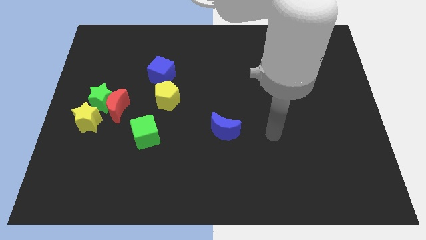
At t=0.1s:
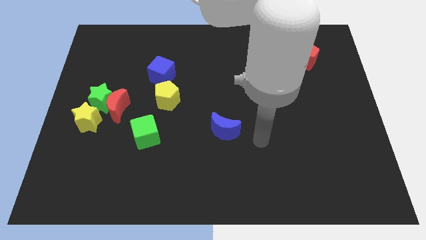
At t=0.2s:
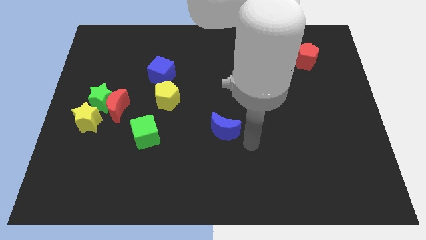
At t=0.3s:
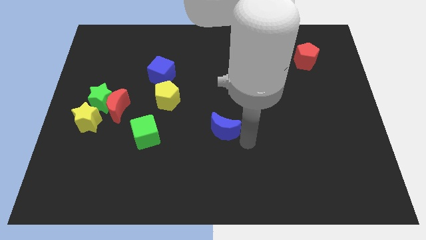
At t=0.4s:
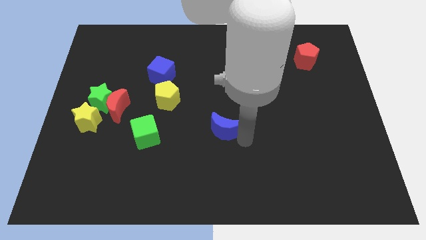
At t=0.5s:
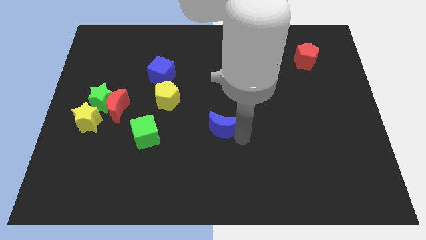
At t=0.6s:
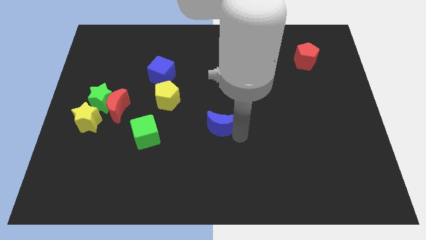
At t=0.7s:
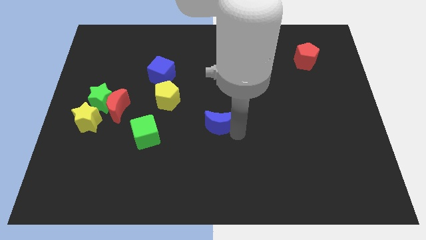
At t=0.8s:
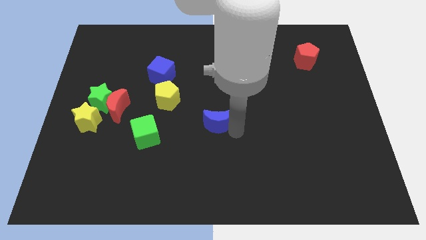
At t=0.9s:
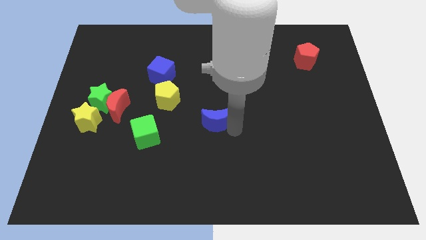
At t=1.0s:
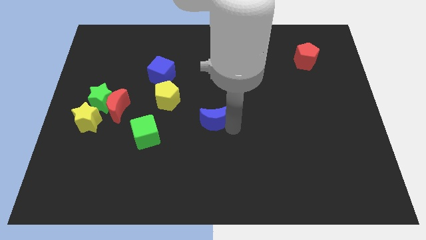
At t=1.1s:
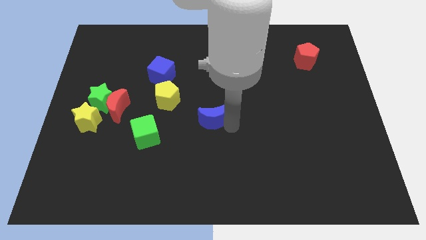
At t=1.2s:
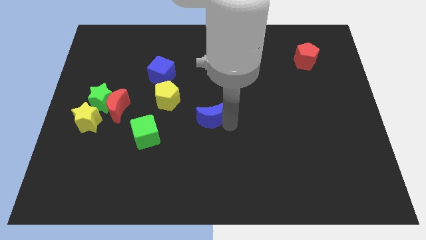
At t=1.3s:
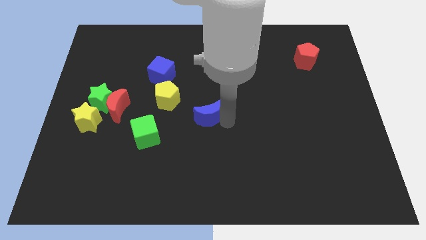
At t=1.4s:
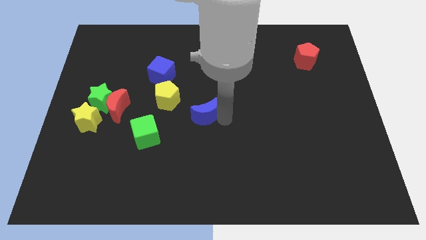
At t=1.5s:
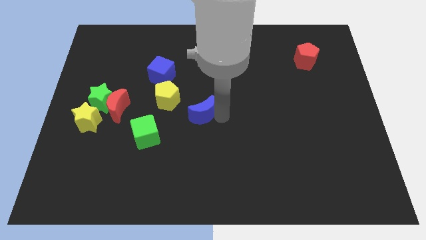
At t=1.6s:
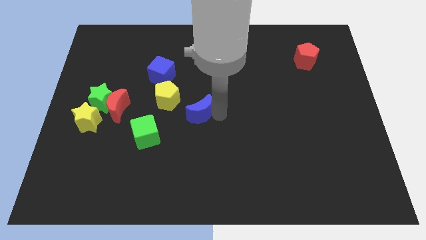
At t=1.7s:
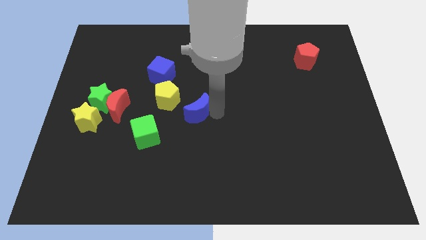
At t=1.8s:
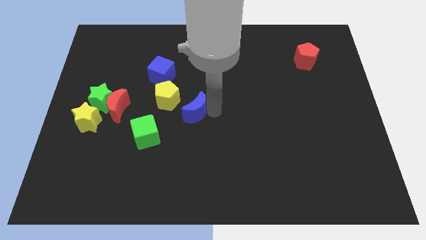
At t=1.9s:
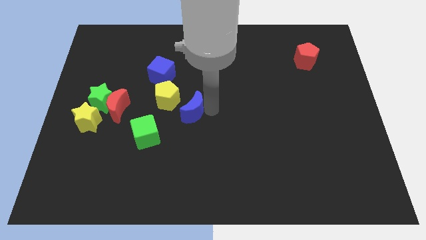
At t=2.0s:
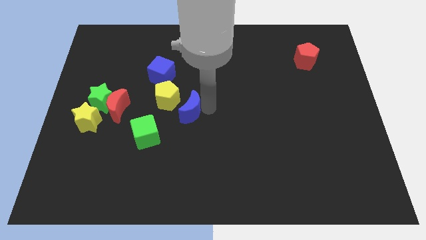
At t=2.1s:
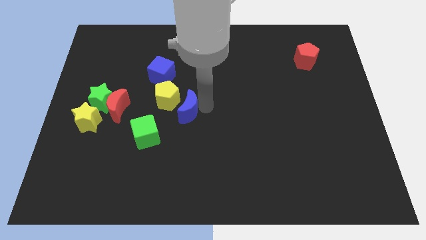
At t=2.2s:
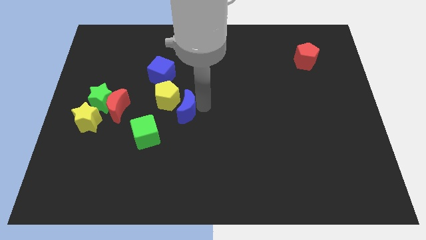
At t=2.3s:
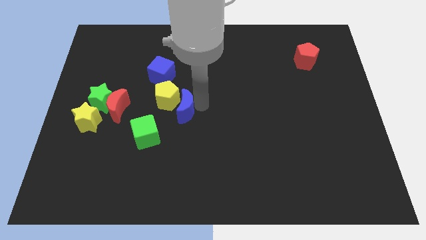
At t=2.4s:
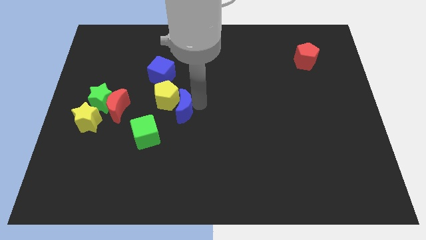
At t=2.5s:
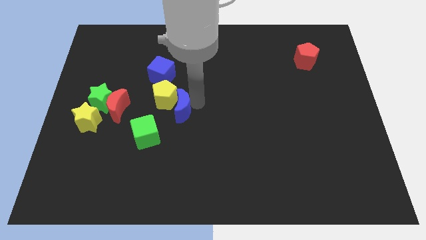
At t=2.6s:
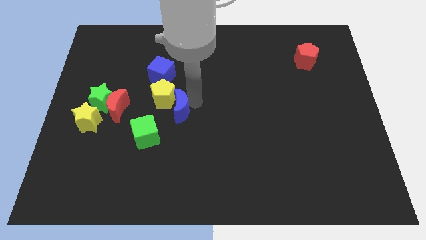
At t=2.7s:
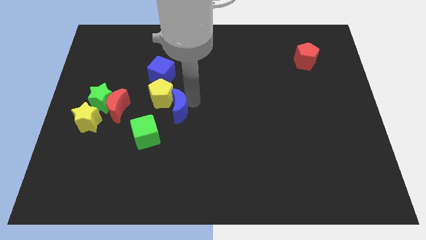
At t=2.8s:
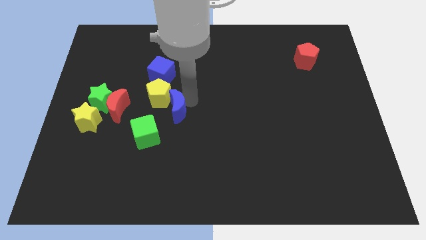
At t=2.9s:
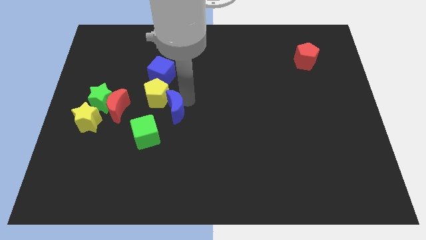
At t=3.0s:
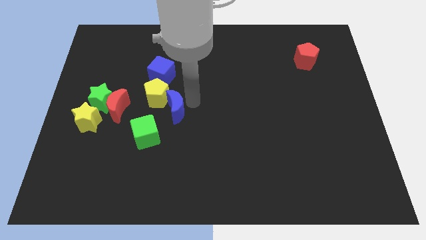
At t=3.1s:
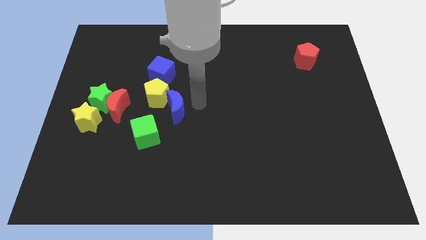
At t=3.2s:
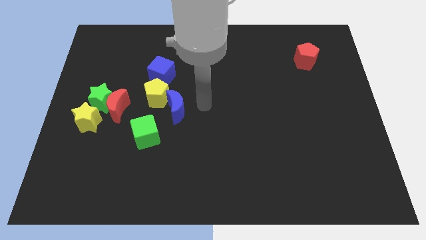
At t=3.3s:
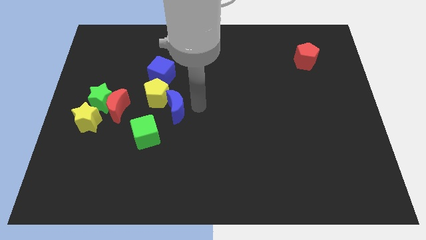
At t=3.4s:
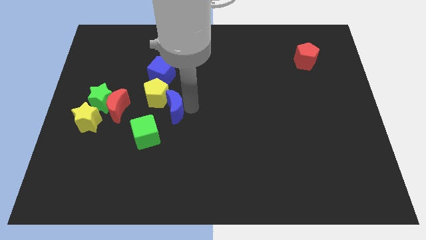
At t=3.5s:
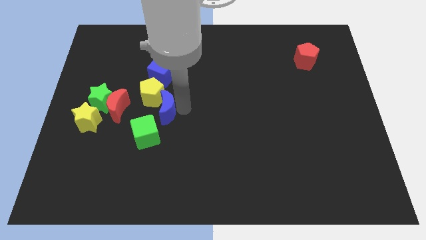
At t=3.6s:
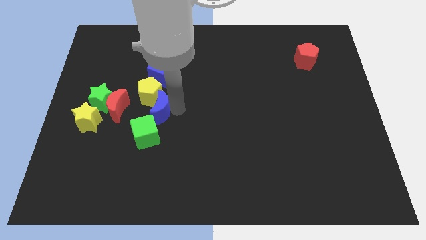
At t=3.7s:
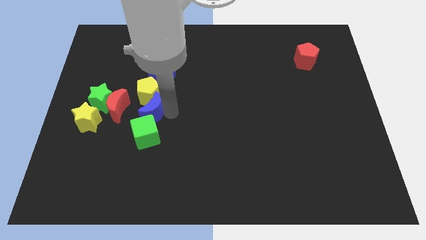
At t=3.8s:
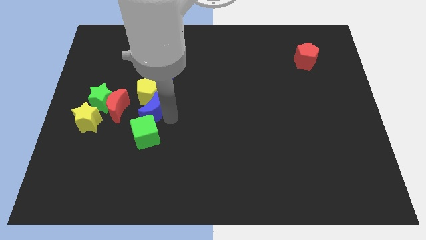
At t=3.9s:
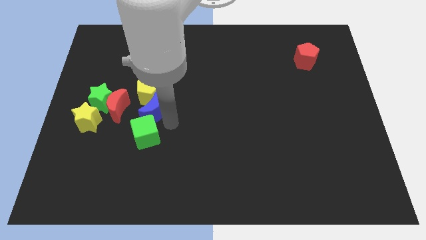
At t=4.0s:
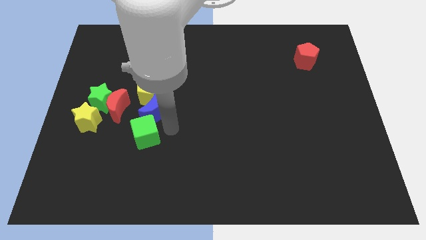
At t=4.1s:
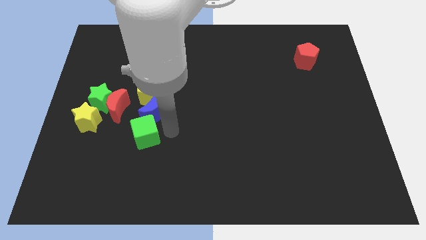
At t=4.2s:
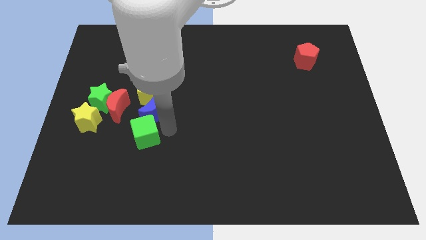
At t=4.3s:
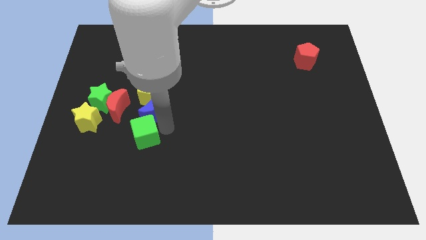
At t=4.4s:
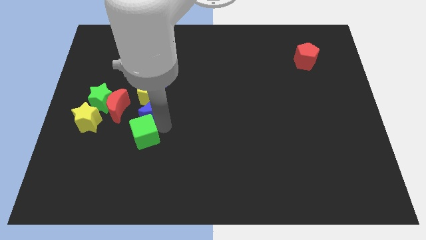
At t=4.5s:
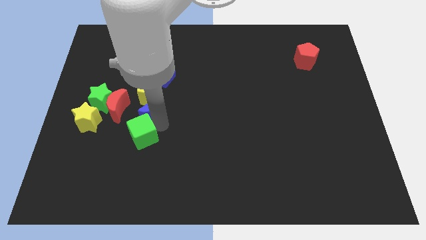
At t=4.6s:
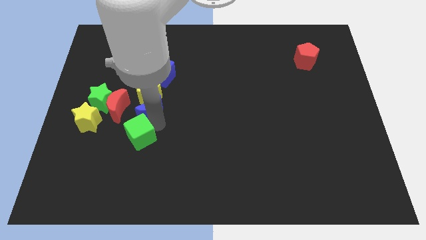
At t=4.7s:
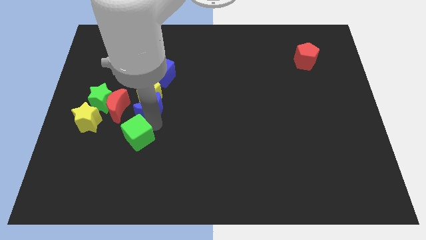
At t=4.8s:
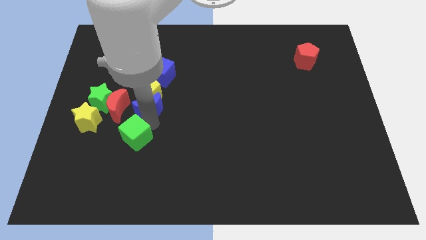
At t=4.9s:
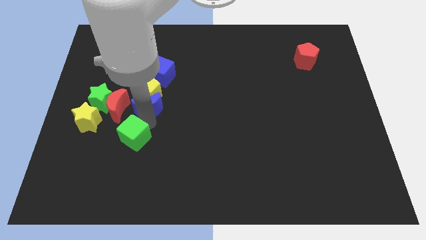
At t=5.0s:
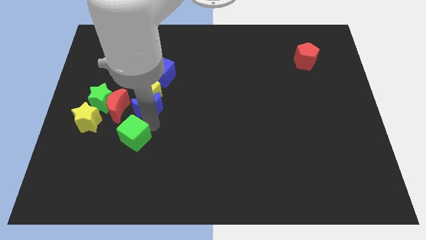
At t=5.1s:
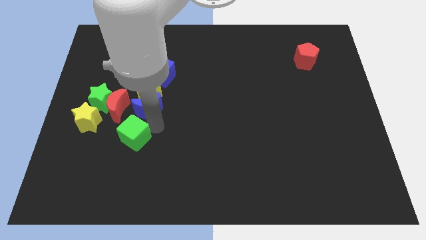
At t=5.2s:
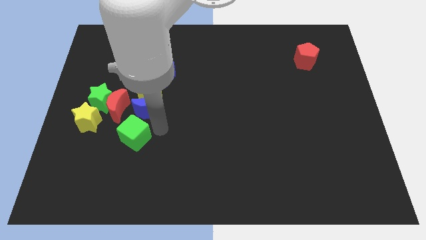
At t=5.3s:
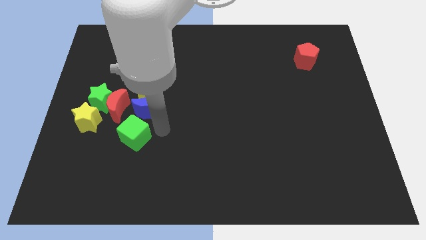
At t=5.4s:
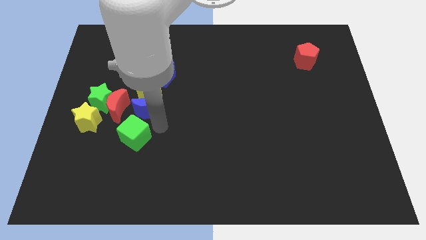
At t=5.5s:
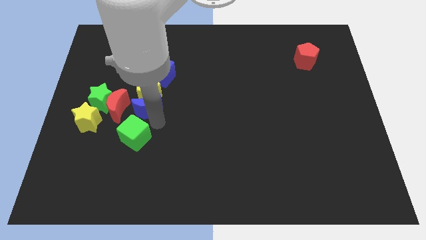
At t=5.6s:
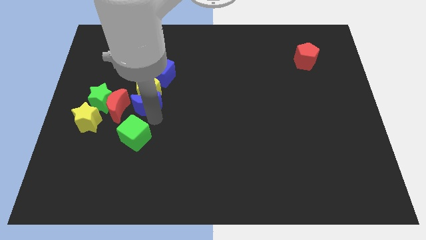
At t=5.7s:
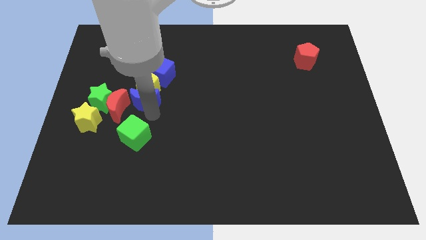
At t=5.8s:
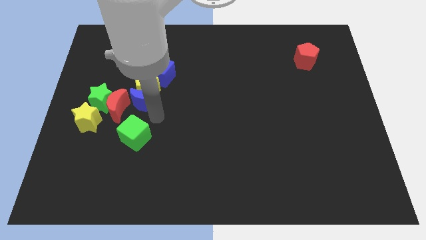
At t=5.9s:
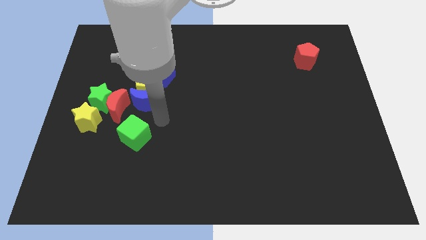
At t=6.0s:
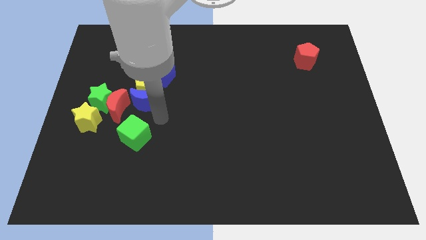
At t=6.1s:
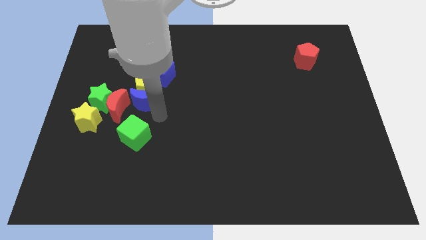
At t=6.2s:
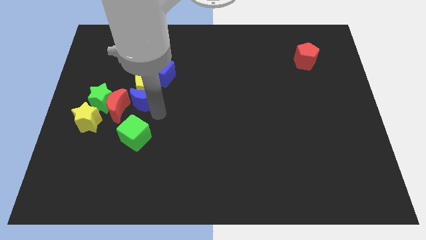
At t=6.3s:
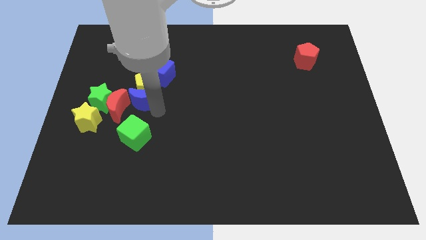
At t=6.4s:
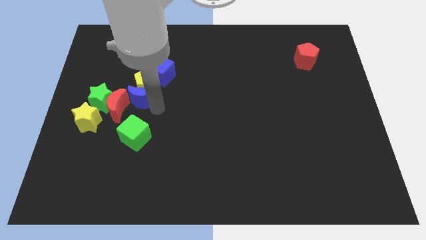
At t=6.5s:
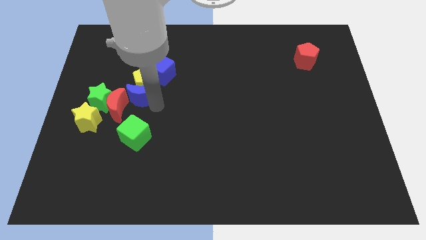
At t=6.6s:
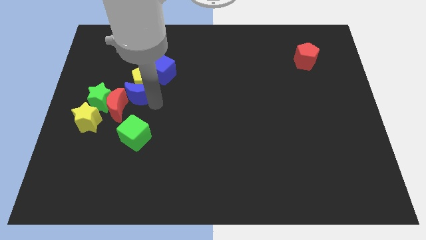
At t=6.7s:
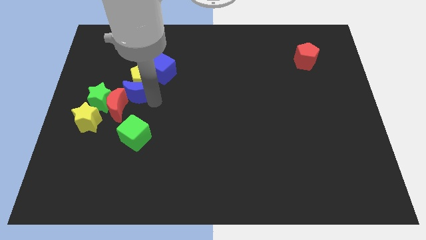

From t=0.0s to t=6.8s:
push the blue moon to the top right of the green star
